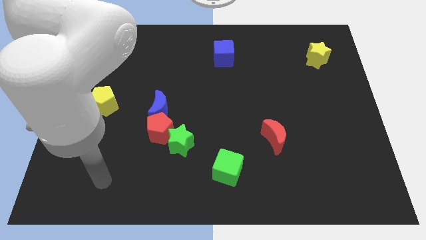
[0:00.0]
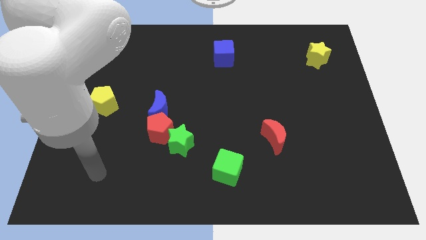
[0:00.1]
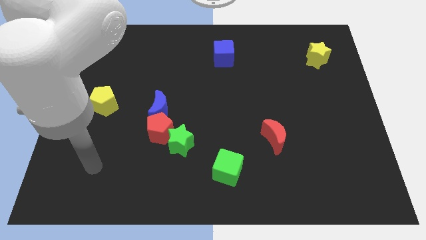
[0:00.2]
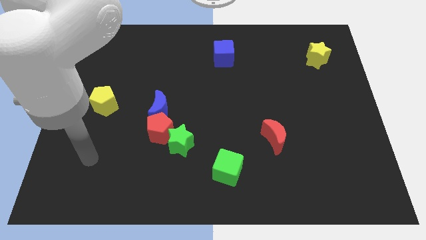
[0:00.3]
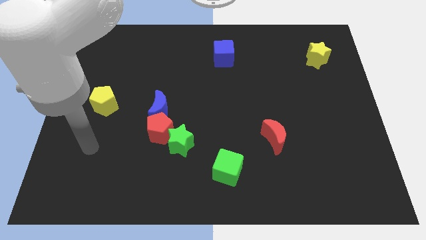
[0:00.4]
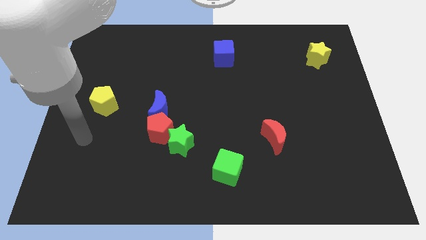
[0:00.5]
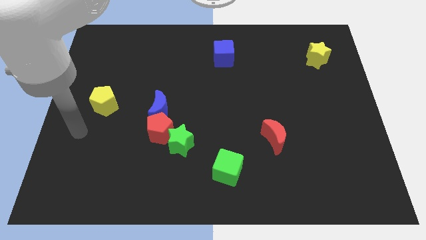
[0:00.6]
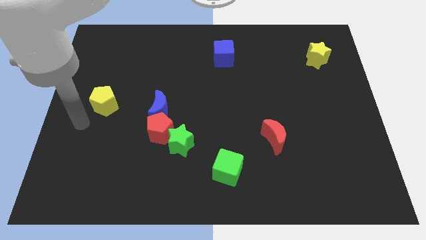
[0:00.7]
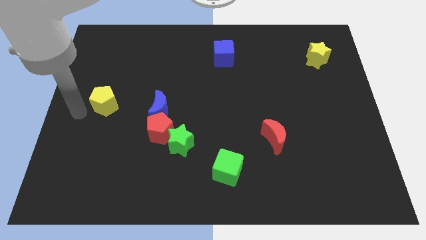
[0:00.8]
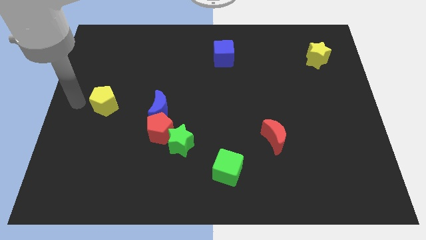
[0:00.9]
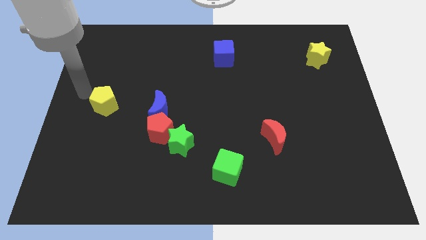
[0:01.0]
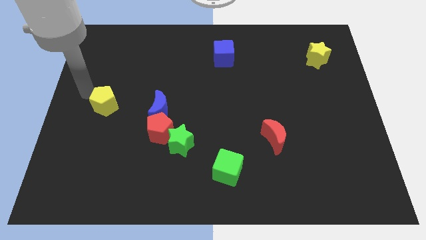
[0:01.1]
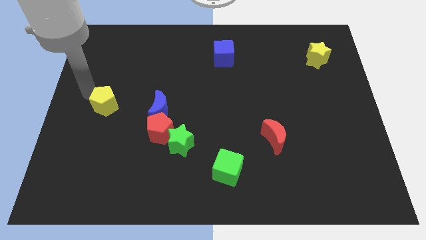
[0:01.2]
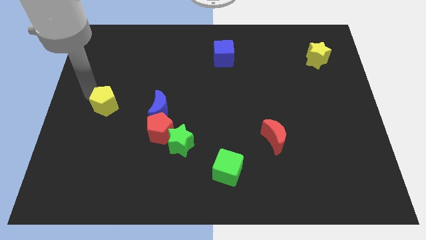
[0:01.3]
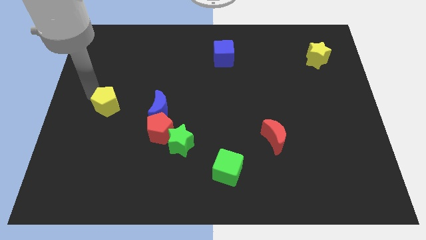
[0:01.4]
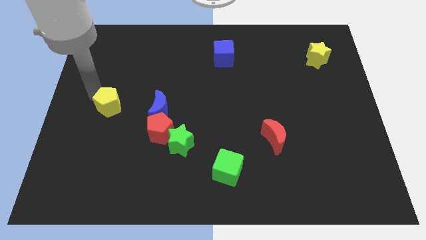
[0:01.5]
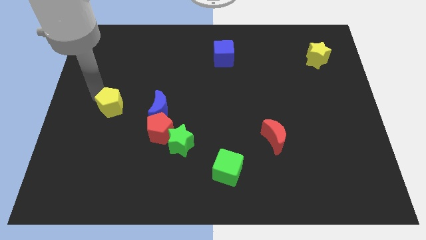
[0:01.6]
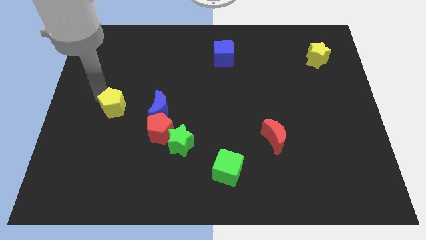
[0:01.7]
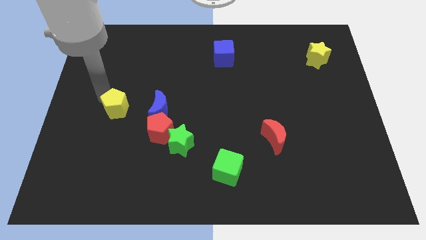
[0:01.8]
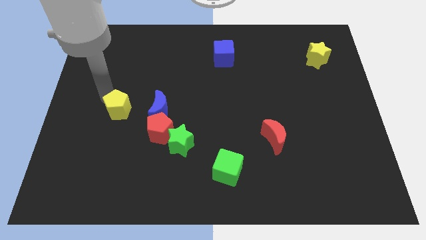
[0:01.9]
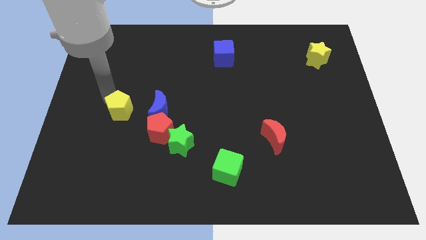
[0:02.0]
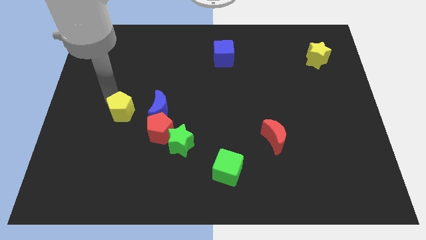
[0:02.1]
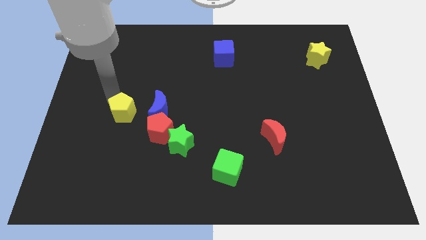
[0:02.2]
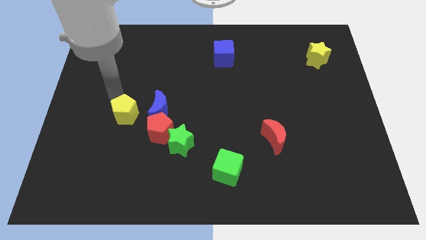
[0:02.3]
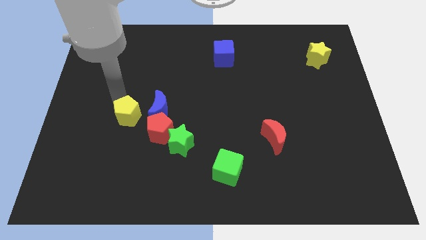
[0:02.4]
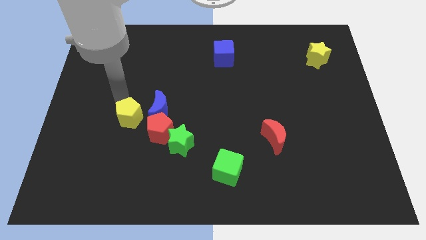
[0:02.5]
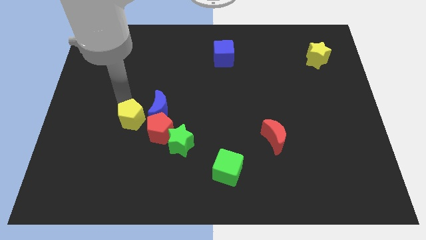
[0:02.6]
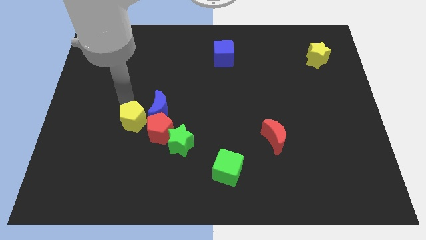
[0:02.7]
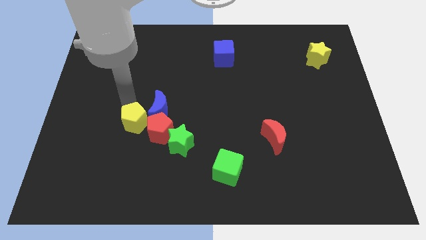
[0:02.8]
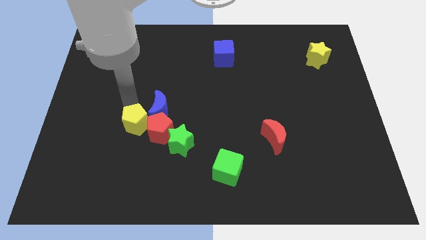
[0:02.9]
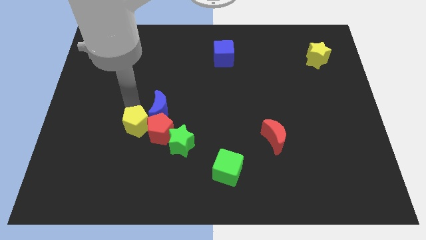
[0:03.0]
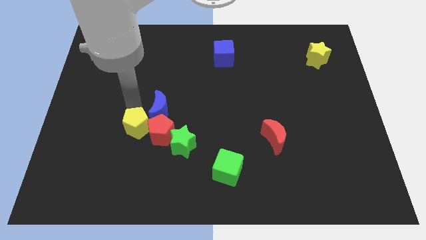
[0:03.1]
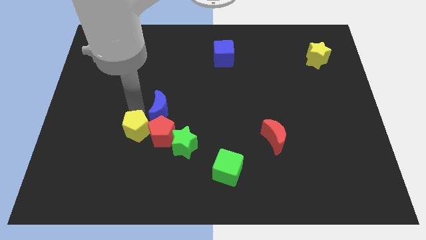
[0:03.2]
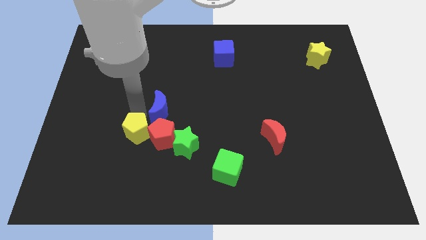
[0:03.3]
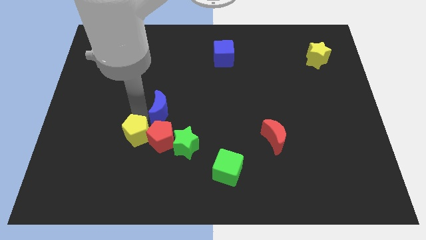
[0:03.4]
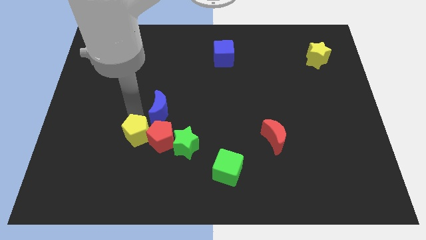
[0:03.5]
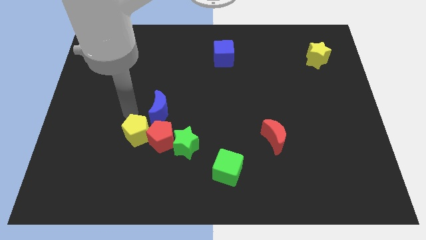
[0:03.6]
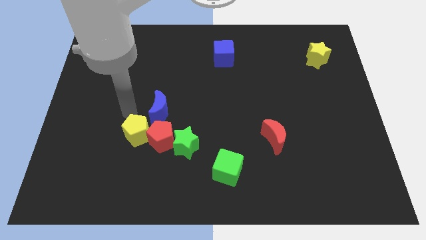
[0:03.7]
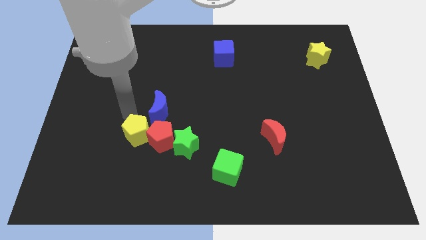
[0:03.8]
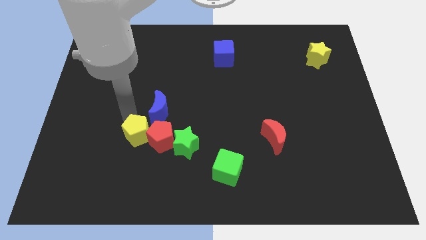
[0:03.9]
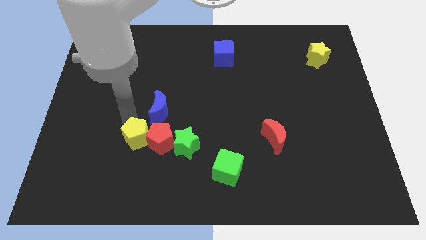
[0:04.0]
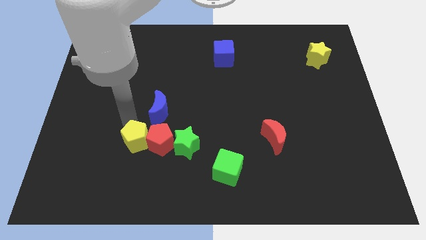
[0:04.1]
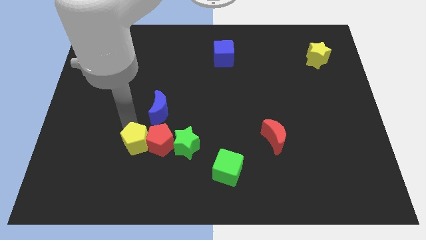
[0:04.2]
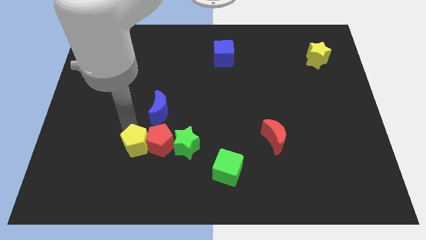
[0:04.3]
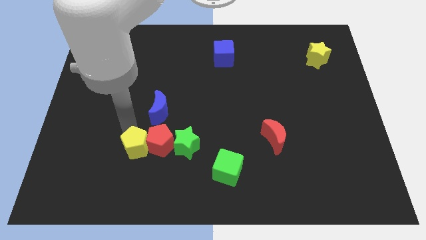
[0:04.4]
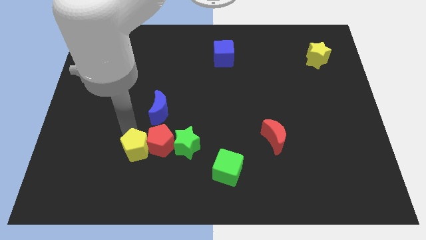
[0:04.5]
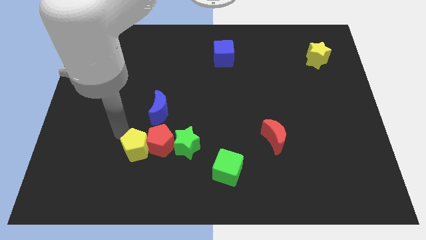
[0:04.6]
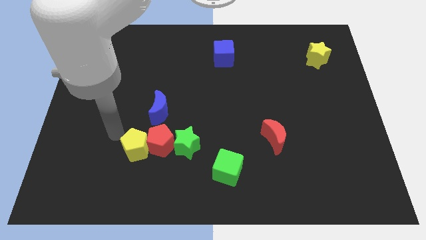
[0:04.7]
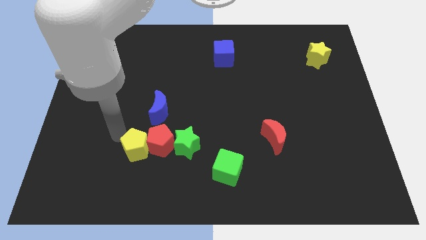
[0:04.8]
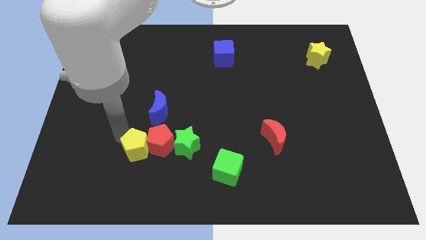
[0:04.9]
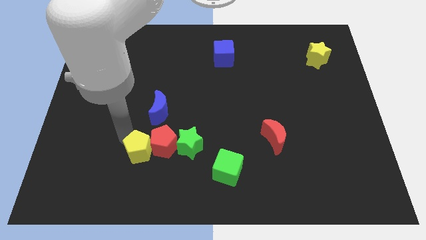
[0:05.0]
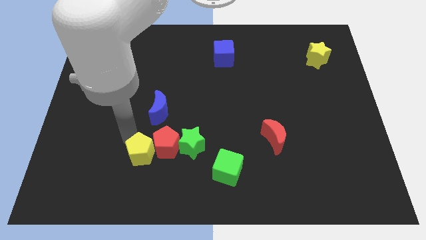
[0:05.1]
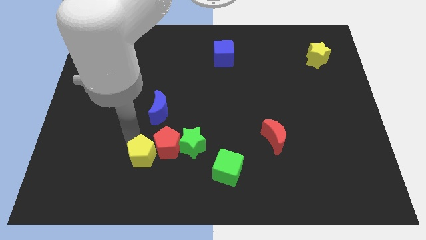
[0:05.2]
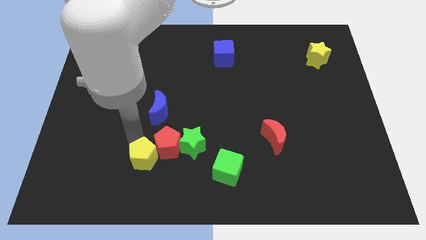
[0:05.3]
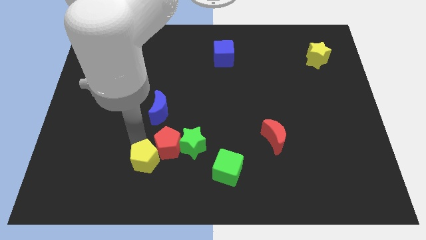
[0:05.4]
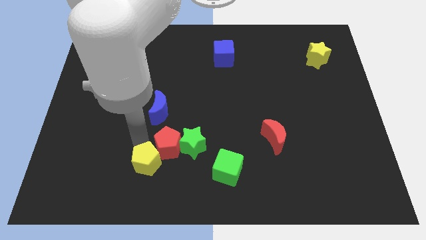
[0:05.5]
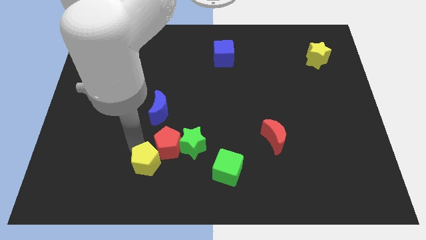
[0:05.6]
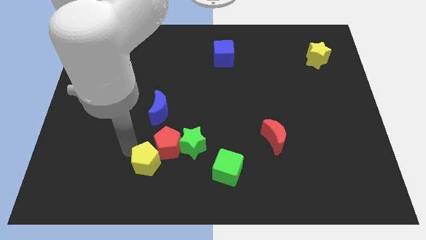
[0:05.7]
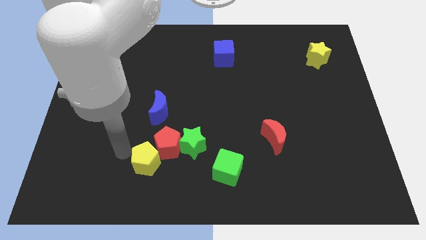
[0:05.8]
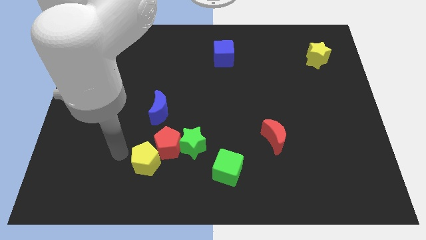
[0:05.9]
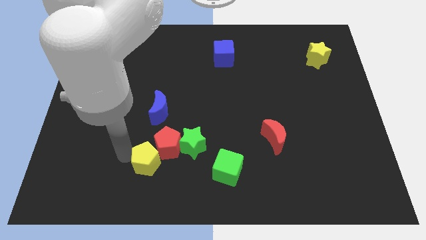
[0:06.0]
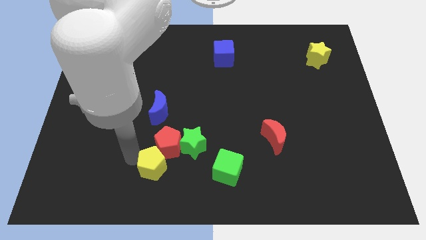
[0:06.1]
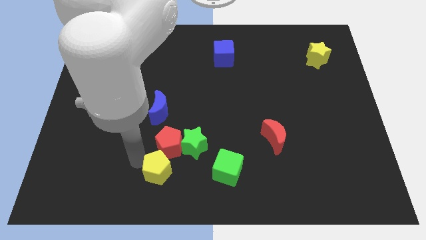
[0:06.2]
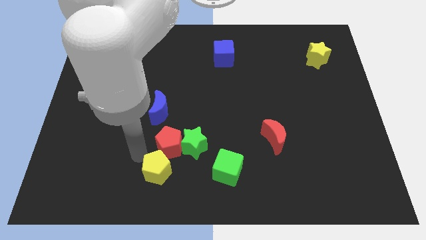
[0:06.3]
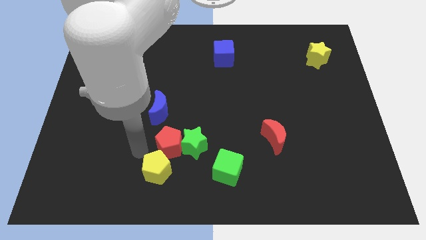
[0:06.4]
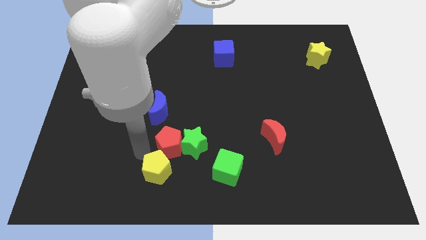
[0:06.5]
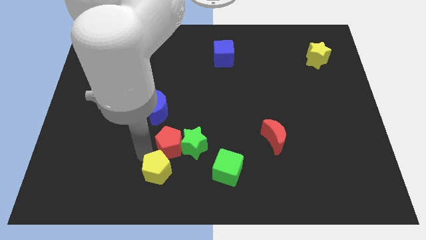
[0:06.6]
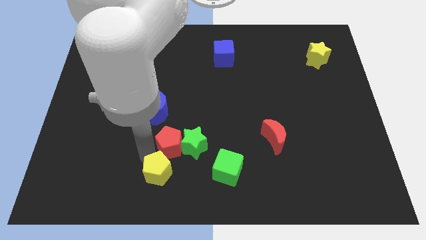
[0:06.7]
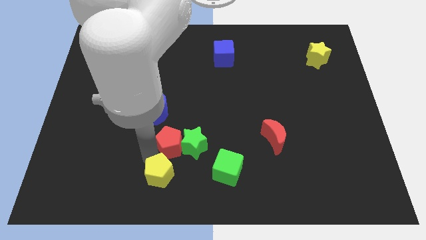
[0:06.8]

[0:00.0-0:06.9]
push the yellow pentagon to the bottom side

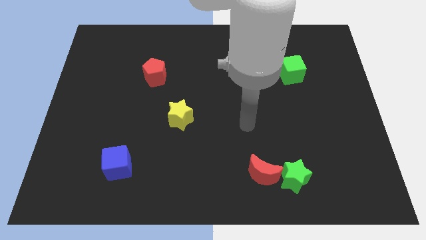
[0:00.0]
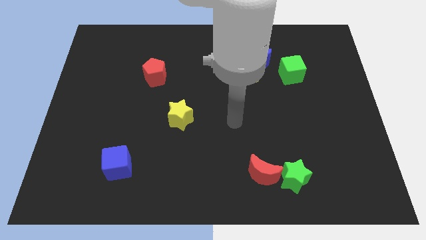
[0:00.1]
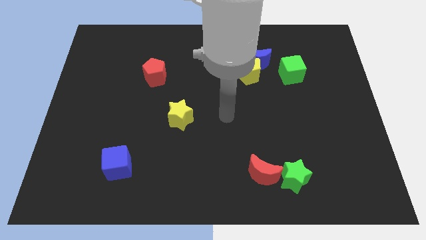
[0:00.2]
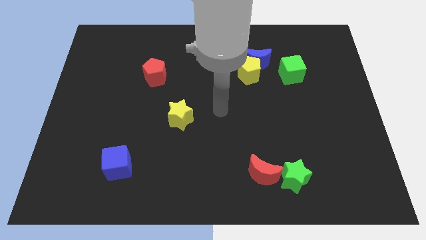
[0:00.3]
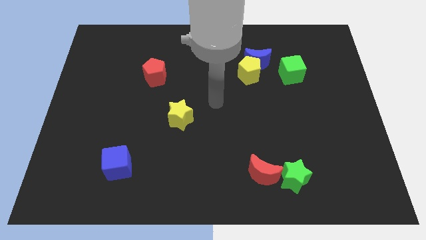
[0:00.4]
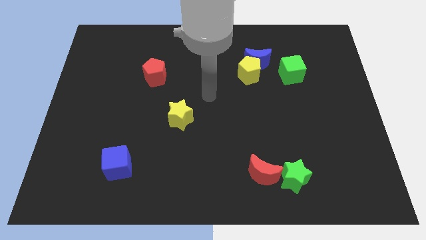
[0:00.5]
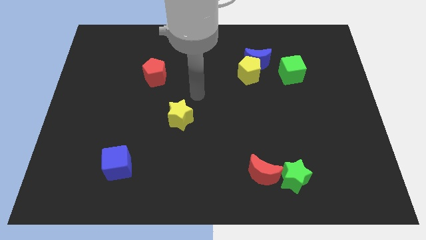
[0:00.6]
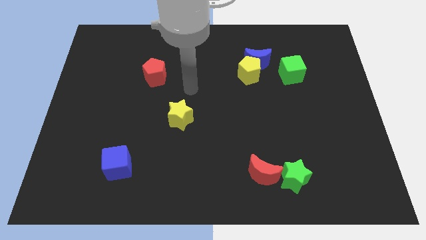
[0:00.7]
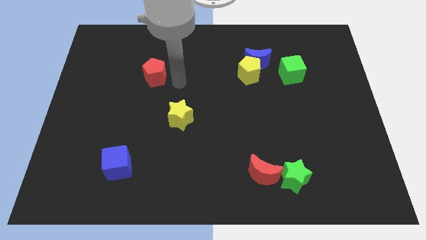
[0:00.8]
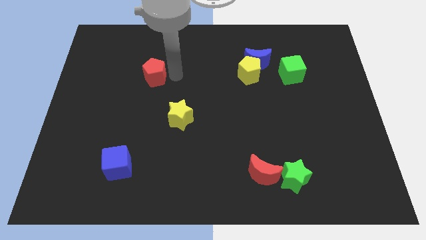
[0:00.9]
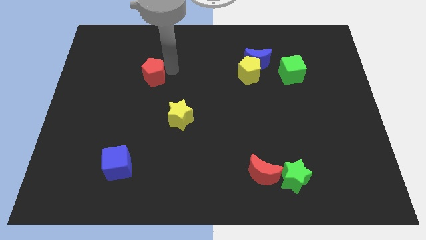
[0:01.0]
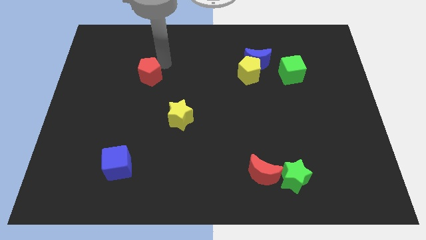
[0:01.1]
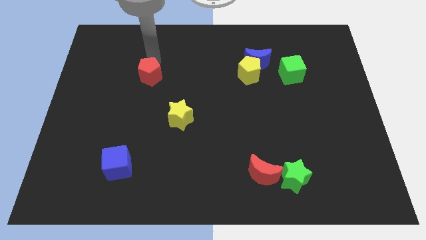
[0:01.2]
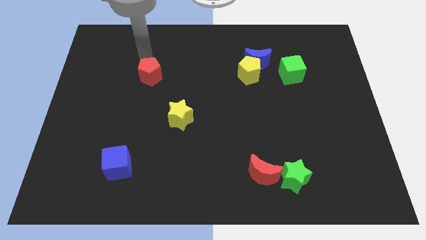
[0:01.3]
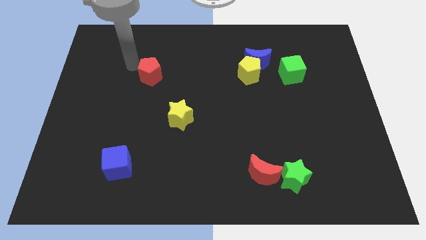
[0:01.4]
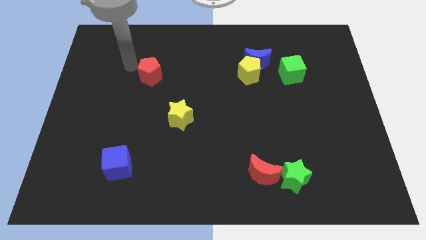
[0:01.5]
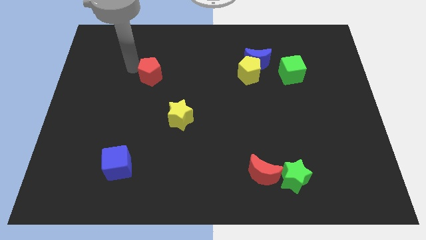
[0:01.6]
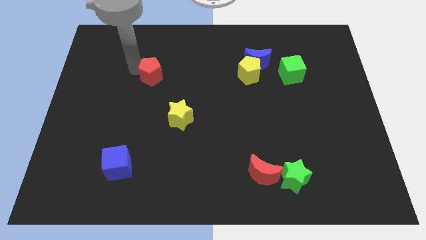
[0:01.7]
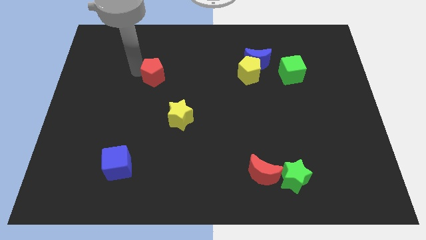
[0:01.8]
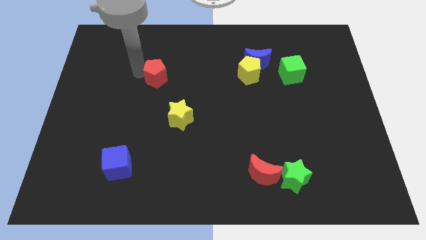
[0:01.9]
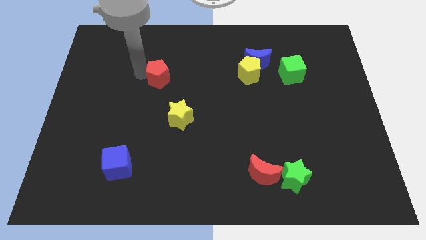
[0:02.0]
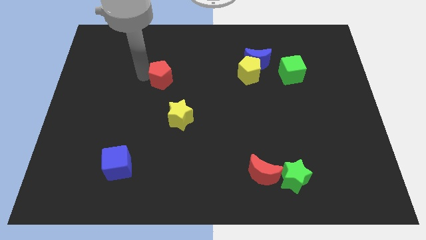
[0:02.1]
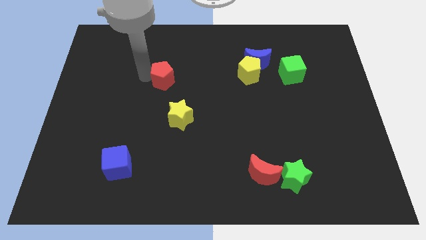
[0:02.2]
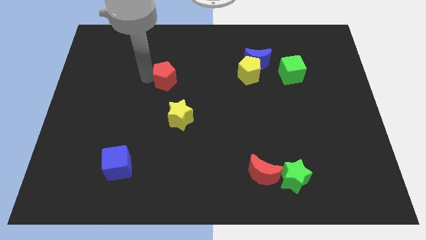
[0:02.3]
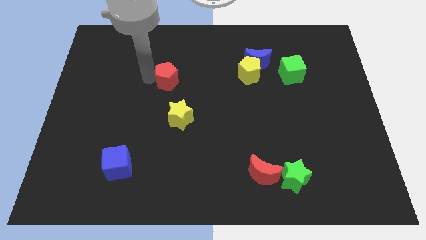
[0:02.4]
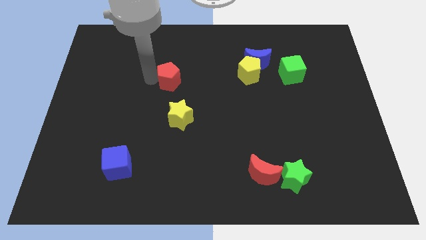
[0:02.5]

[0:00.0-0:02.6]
push the red pentagon to the center
